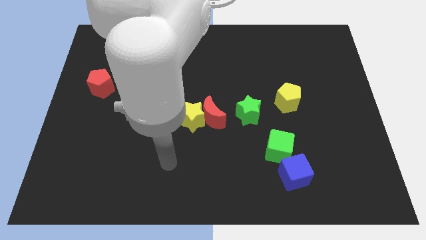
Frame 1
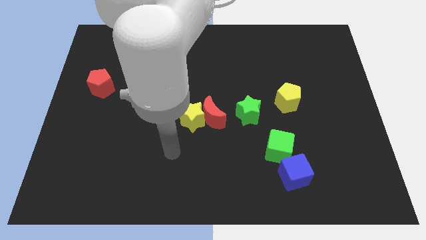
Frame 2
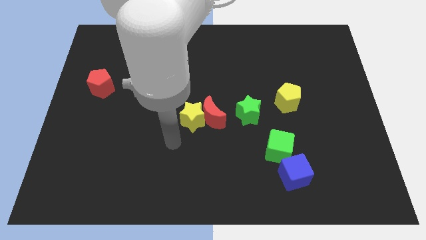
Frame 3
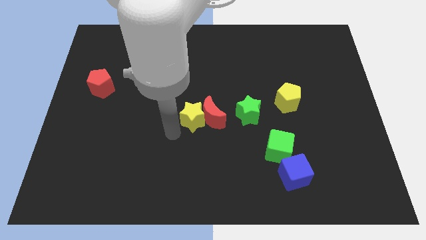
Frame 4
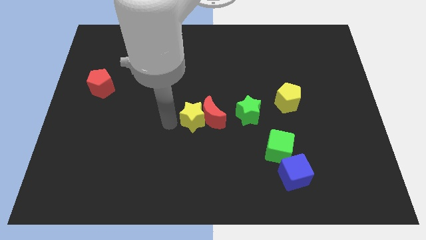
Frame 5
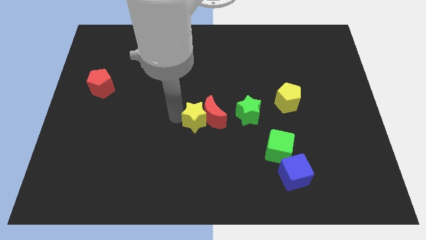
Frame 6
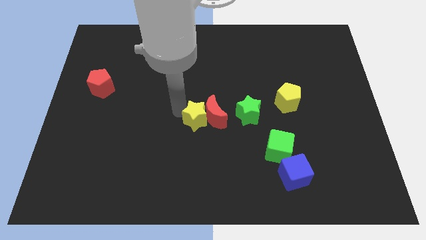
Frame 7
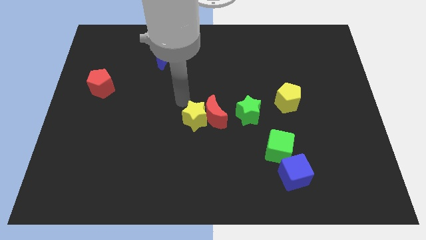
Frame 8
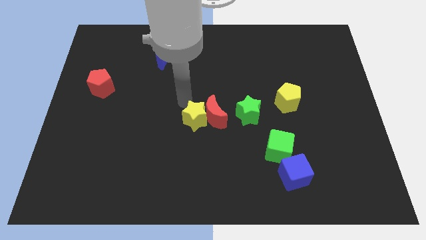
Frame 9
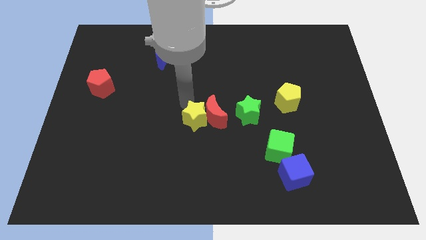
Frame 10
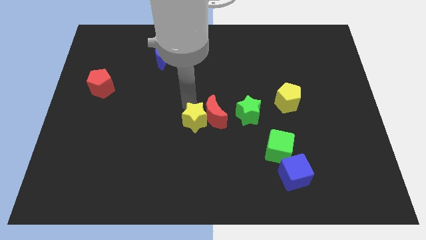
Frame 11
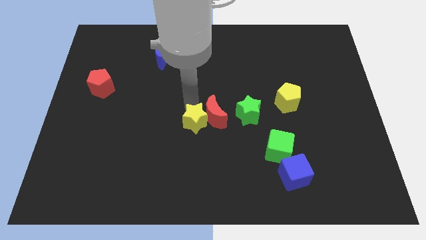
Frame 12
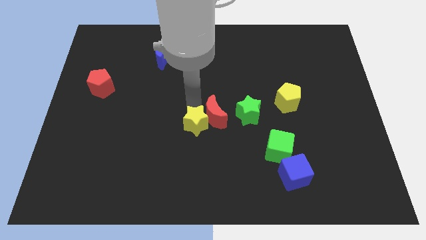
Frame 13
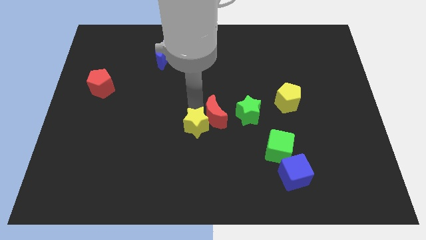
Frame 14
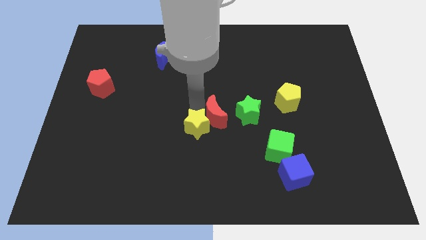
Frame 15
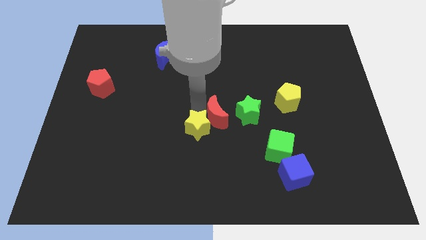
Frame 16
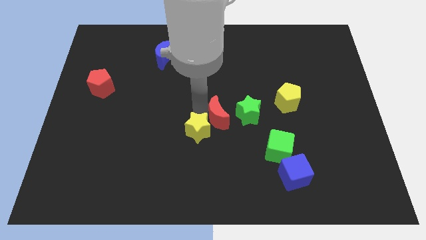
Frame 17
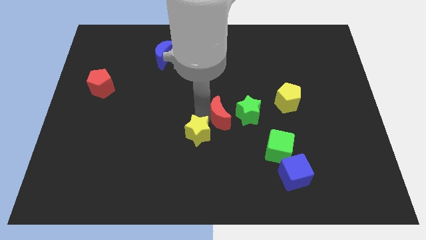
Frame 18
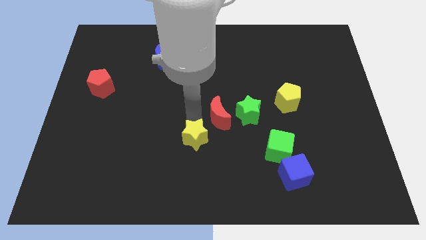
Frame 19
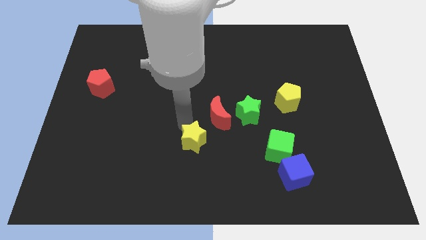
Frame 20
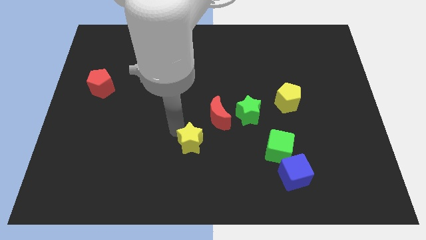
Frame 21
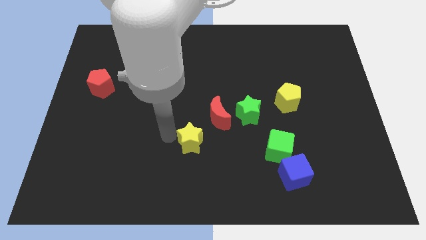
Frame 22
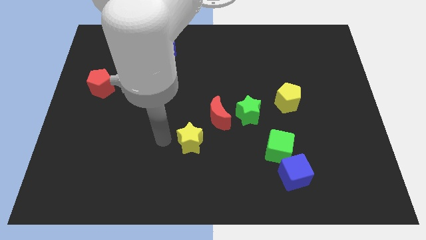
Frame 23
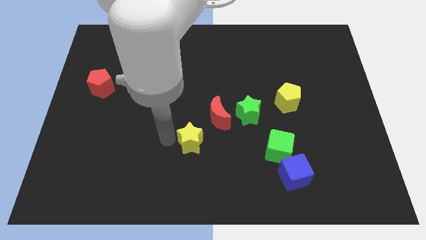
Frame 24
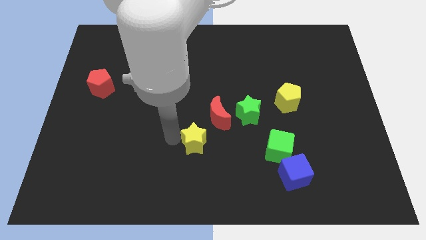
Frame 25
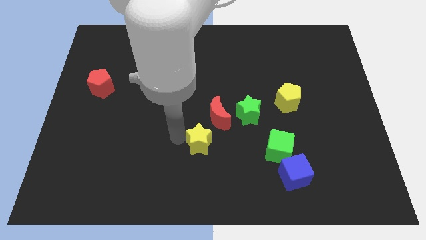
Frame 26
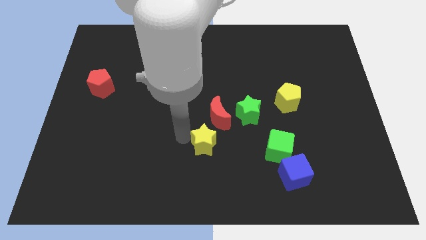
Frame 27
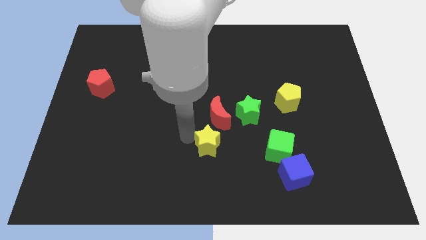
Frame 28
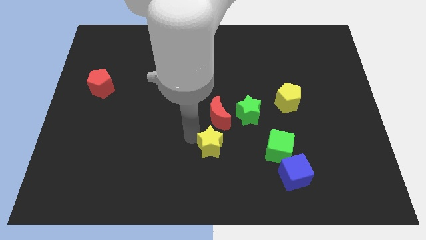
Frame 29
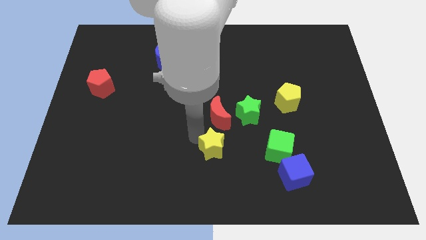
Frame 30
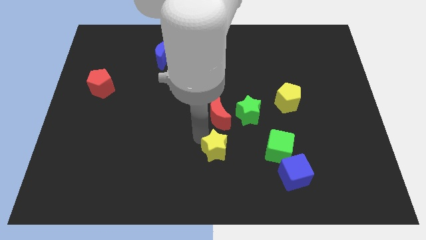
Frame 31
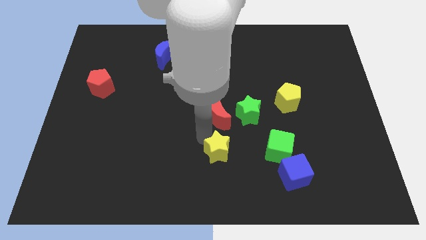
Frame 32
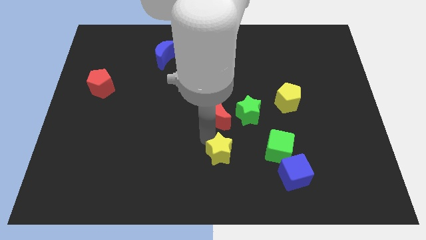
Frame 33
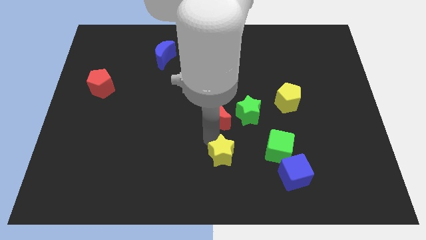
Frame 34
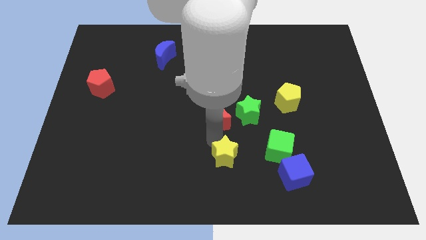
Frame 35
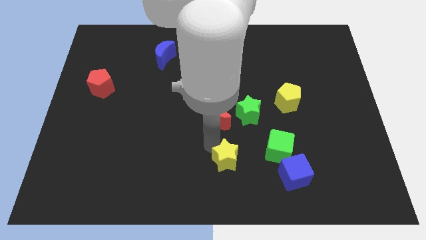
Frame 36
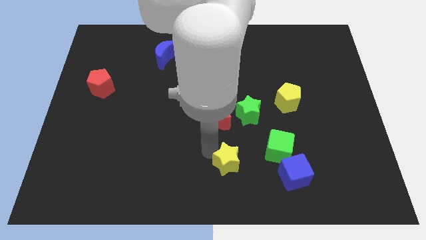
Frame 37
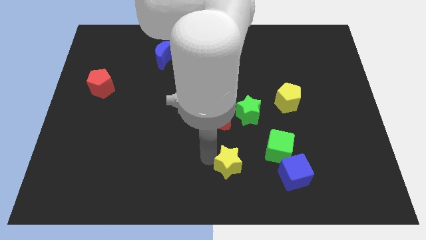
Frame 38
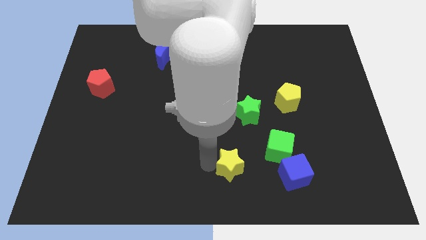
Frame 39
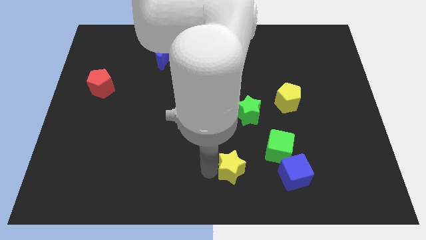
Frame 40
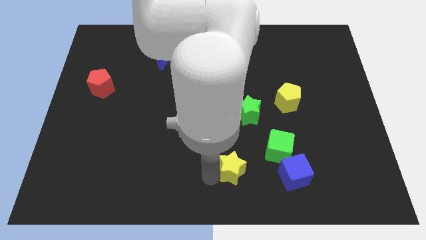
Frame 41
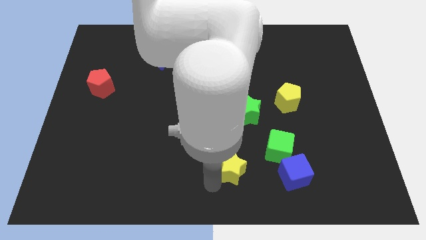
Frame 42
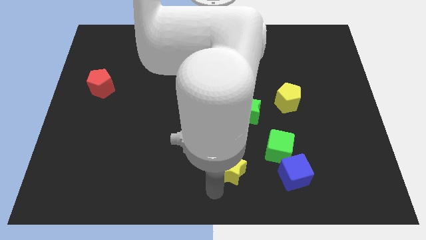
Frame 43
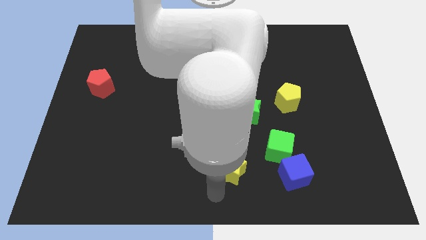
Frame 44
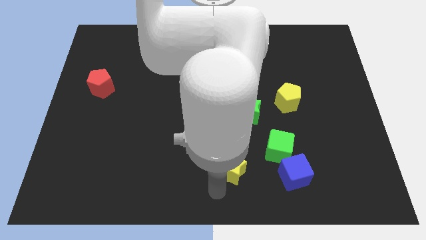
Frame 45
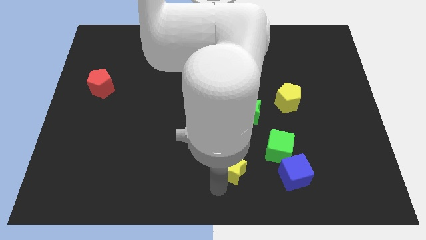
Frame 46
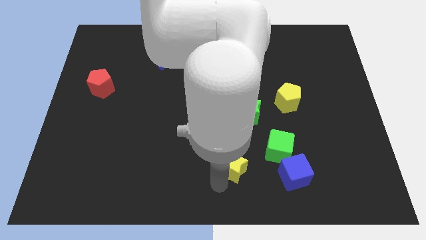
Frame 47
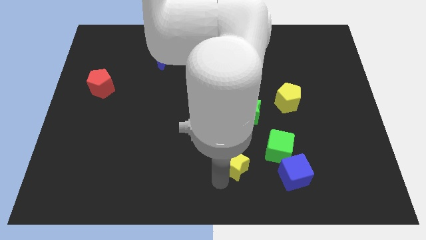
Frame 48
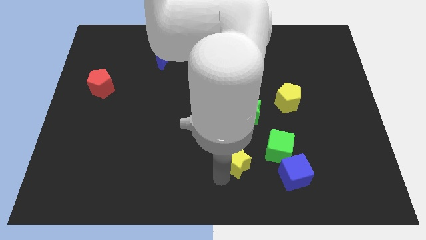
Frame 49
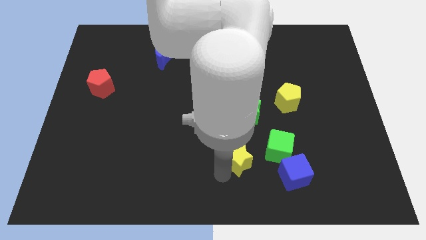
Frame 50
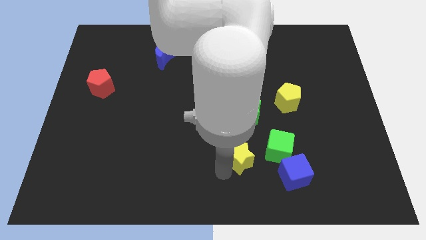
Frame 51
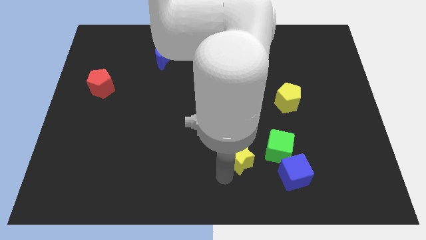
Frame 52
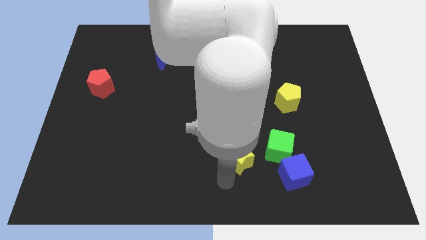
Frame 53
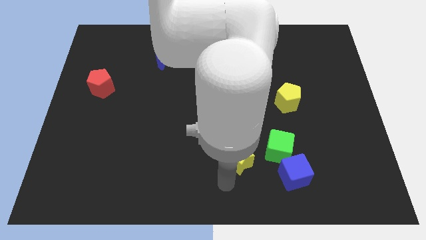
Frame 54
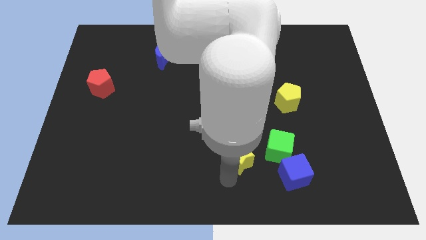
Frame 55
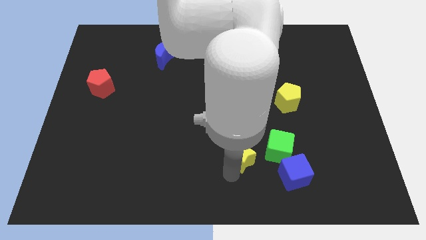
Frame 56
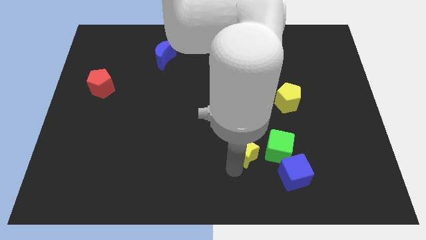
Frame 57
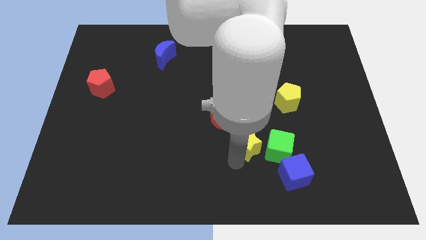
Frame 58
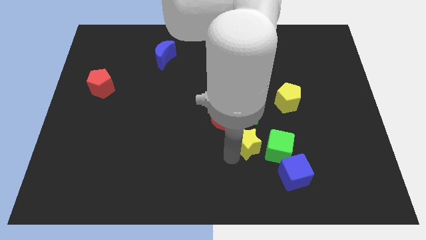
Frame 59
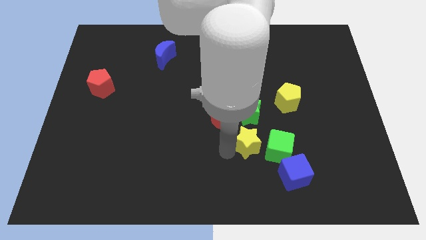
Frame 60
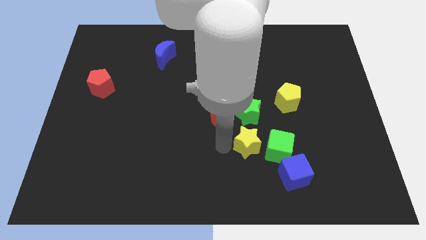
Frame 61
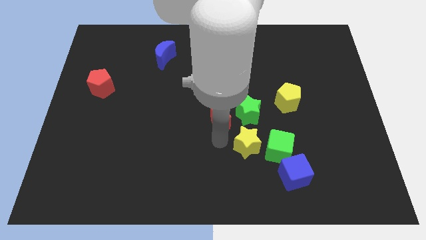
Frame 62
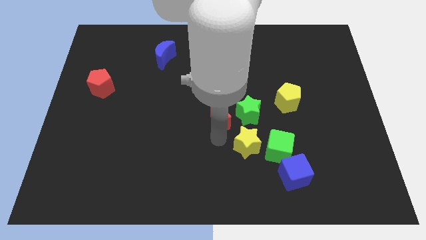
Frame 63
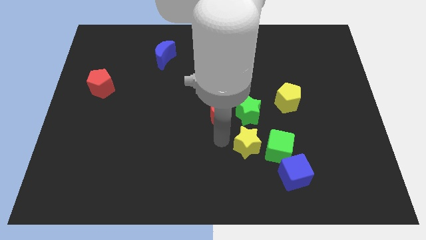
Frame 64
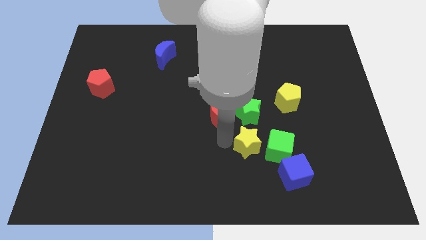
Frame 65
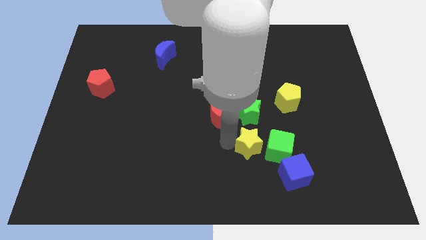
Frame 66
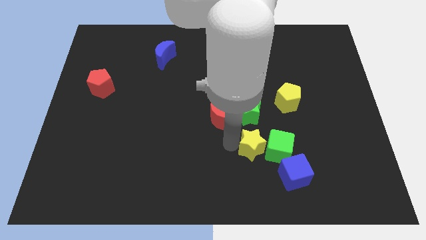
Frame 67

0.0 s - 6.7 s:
put the yellow star next to the green cube
